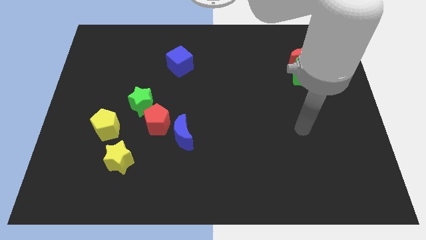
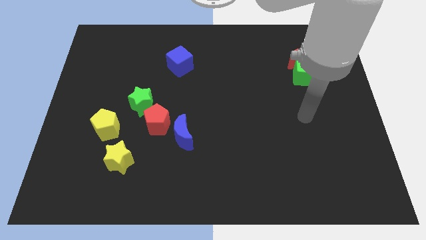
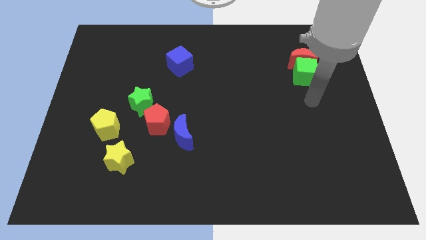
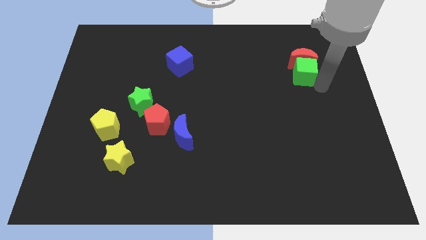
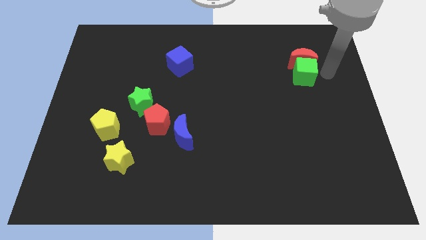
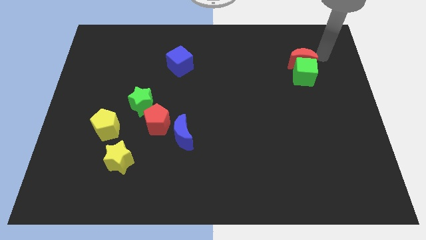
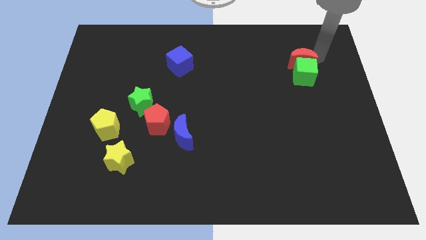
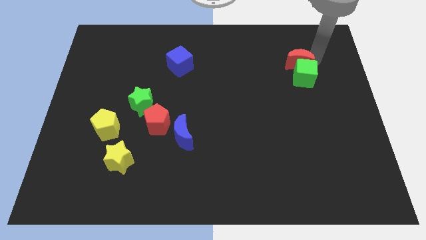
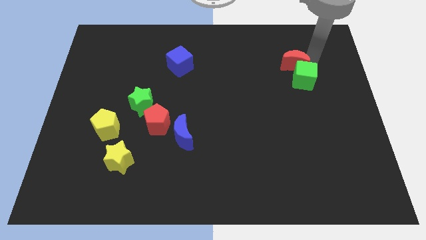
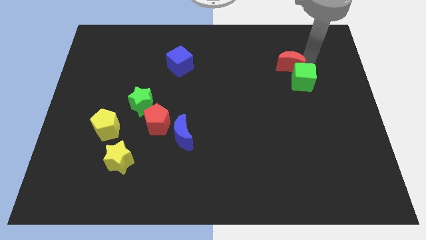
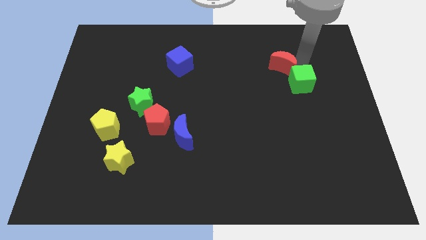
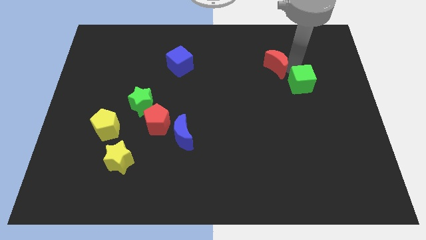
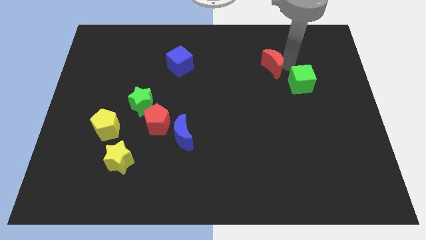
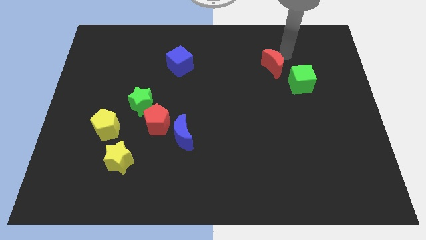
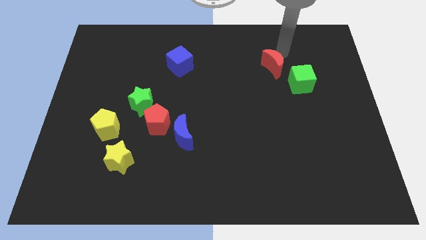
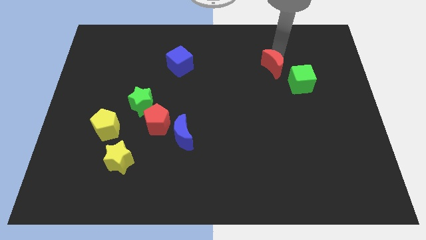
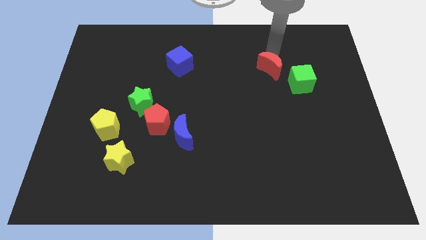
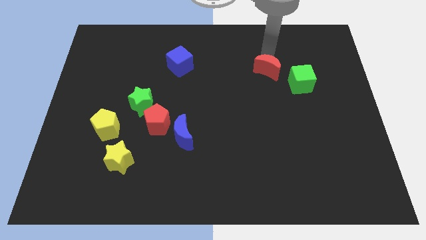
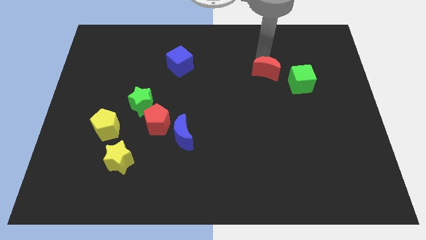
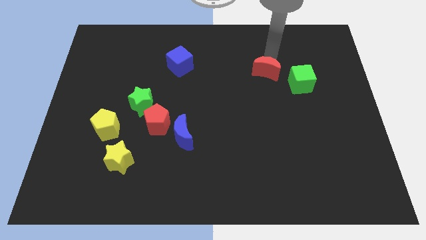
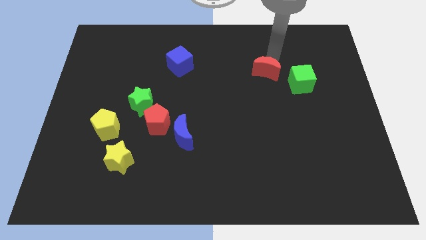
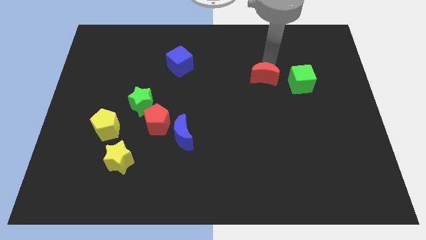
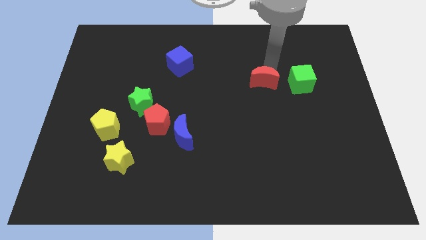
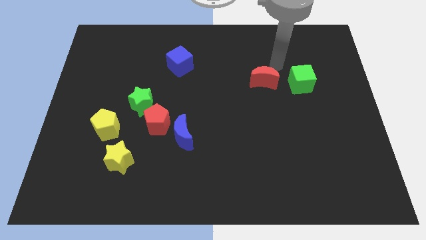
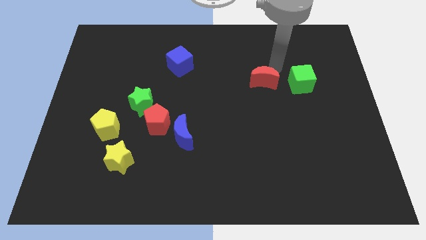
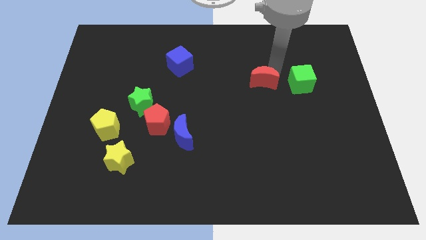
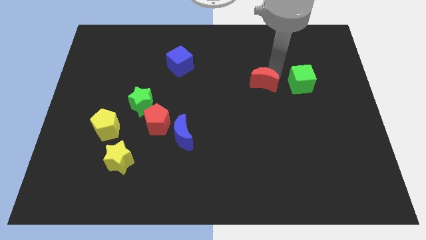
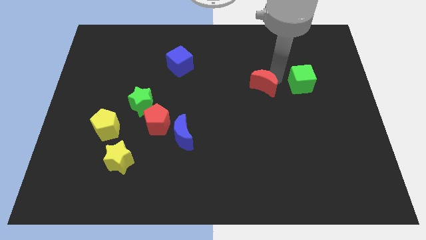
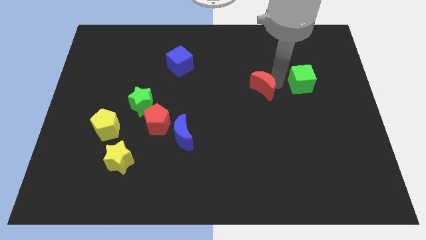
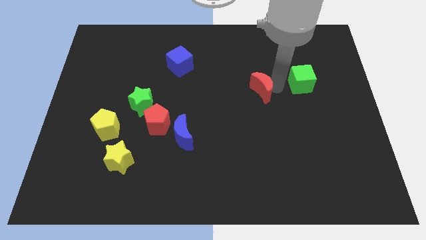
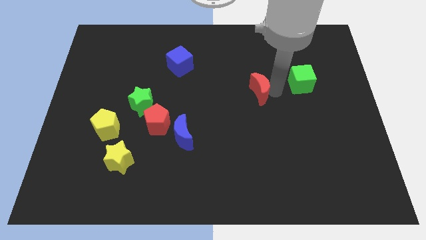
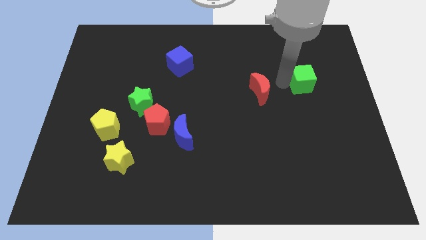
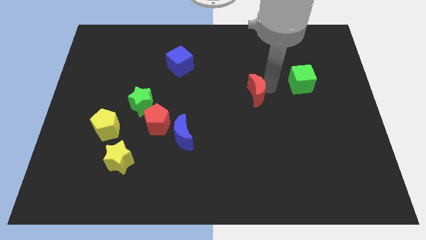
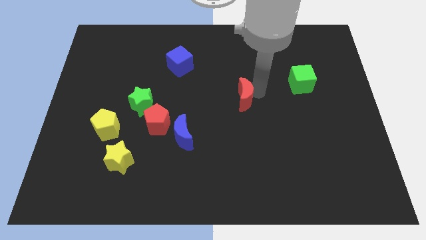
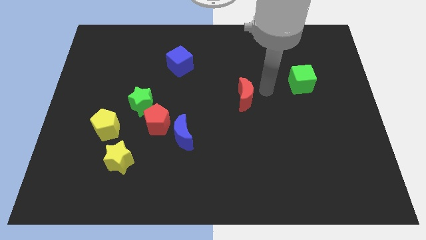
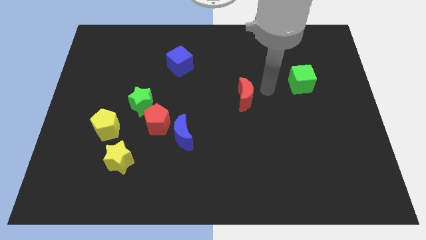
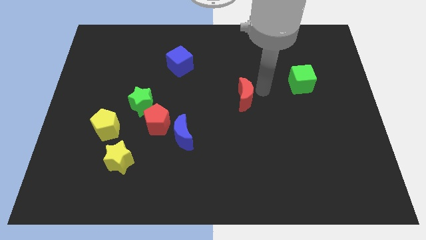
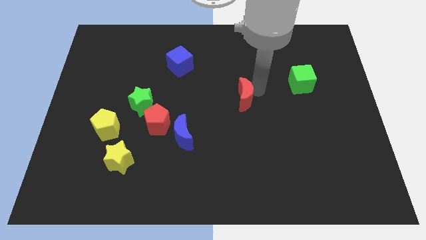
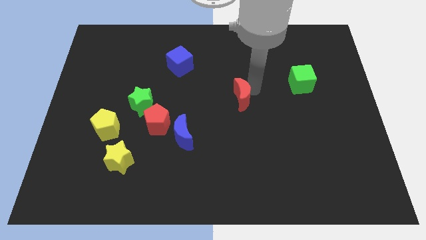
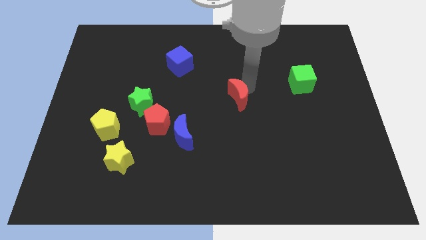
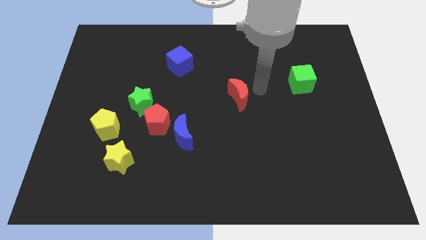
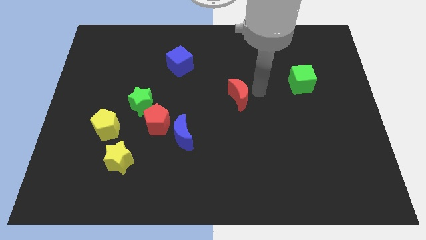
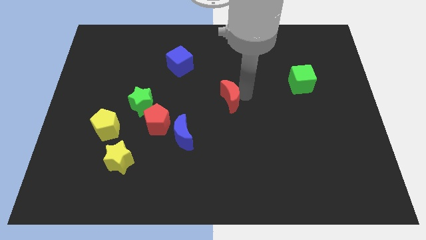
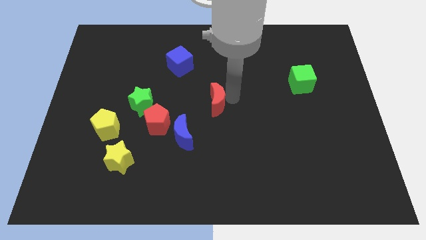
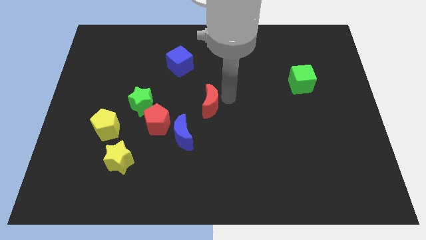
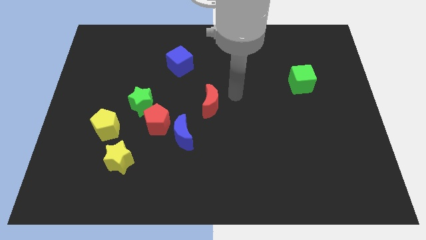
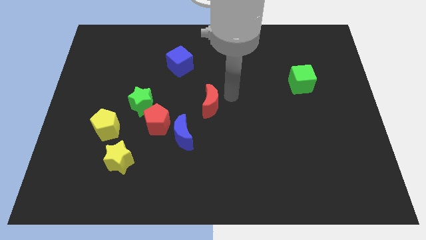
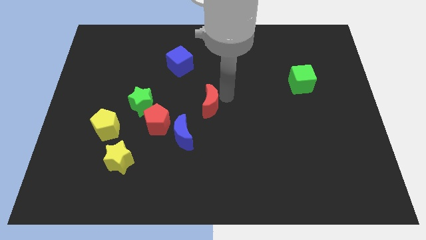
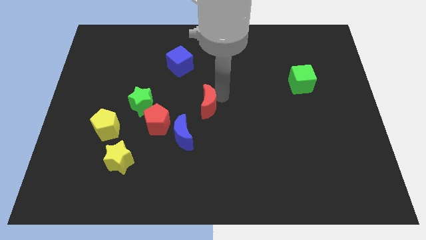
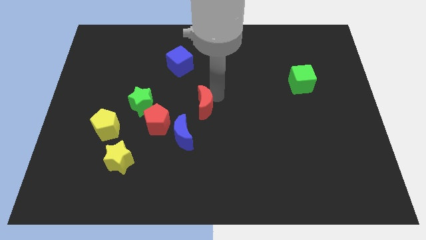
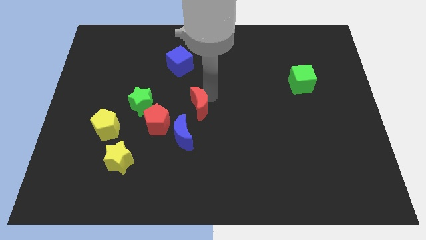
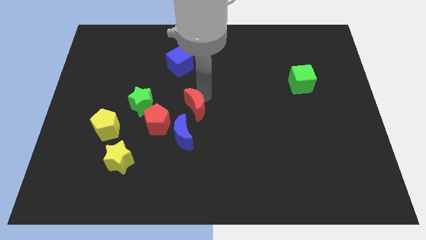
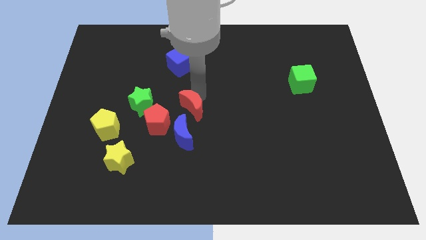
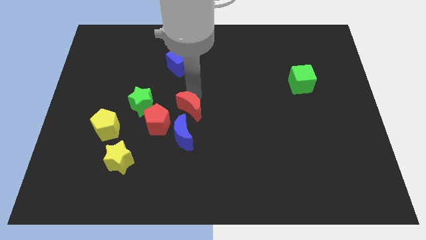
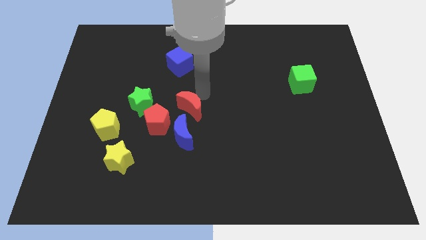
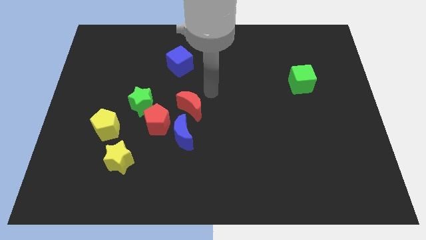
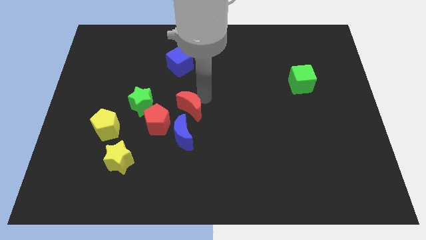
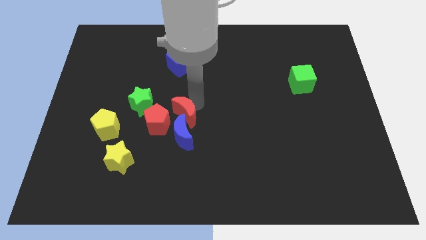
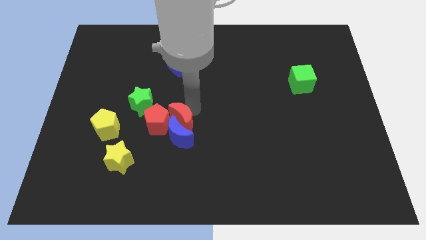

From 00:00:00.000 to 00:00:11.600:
push the red moon next to the red pentagon
